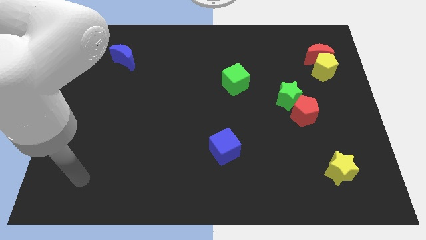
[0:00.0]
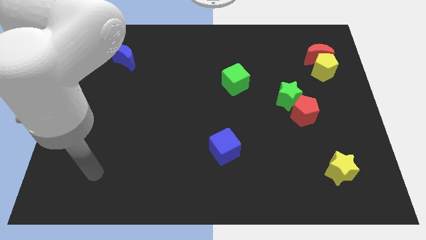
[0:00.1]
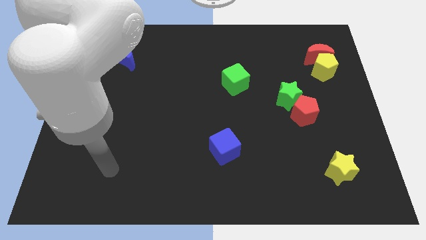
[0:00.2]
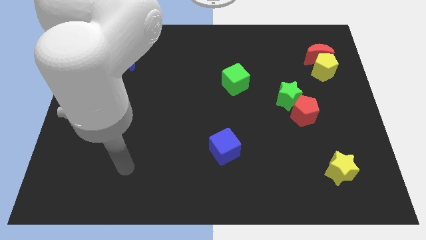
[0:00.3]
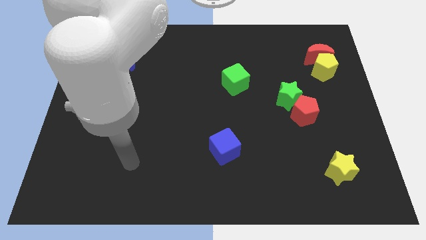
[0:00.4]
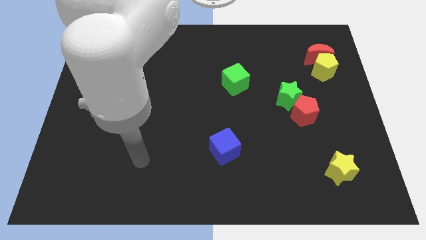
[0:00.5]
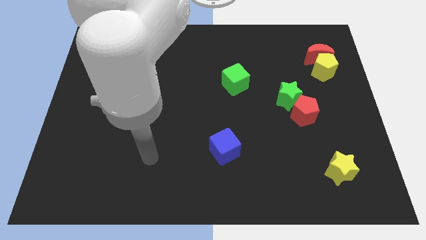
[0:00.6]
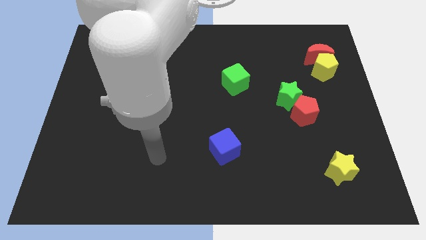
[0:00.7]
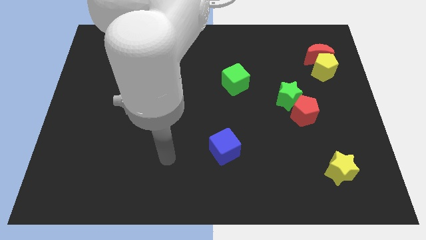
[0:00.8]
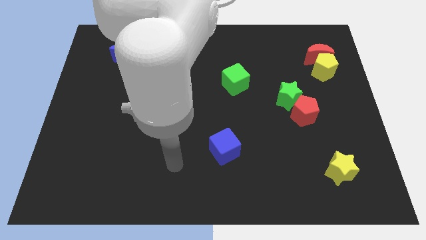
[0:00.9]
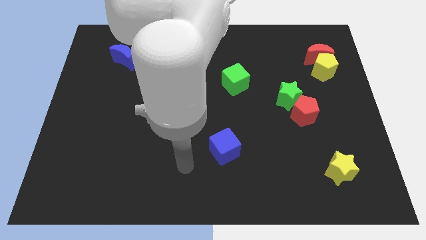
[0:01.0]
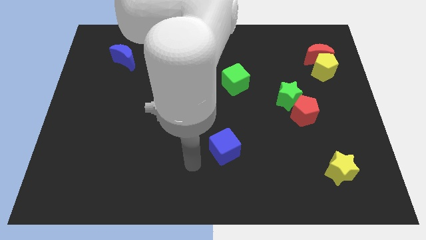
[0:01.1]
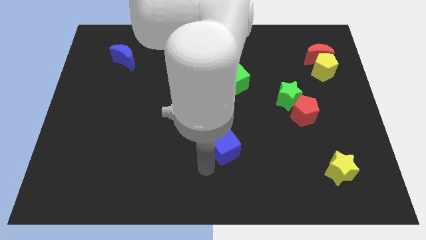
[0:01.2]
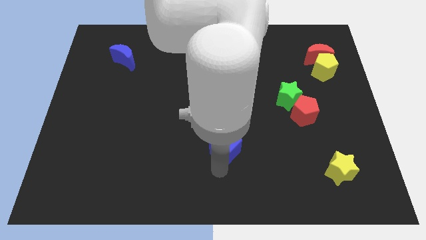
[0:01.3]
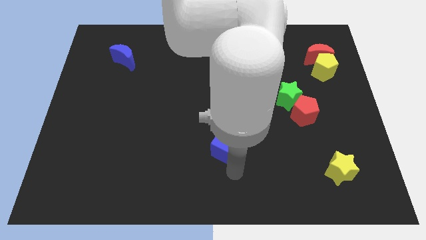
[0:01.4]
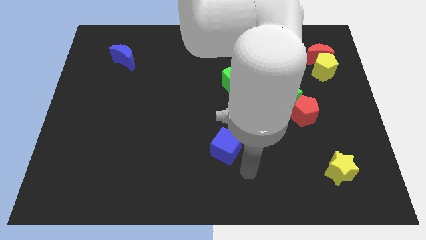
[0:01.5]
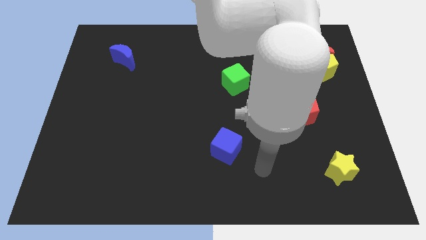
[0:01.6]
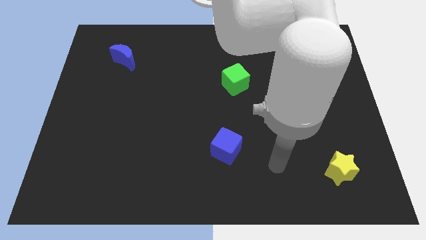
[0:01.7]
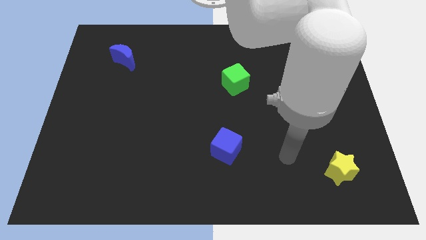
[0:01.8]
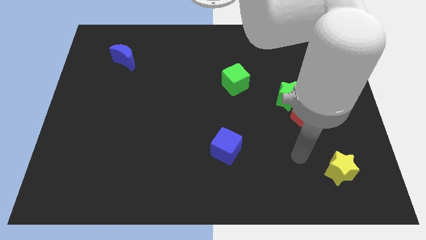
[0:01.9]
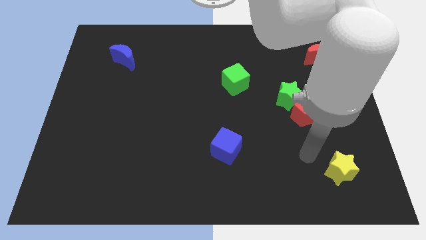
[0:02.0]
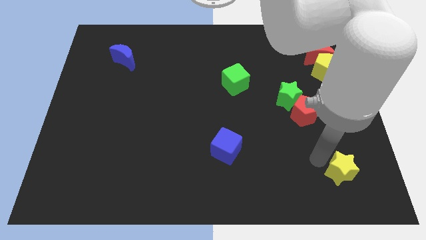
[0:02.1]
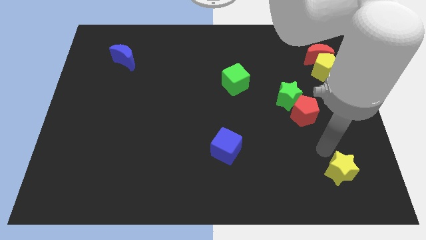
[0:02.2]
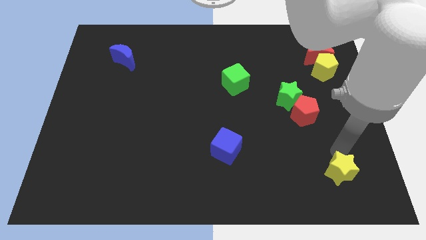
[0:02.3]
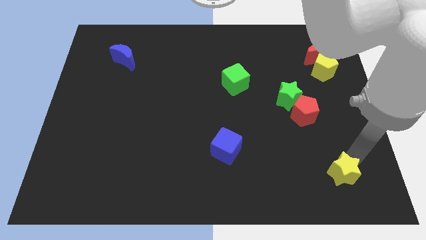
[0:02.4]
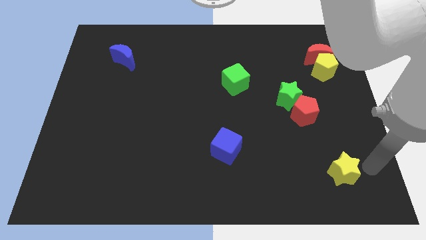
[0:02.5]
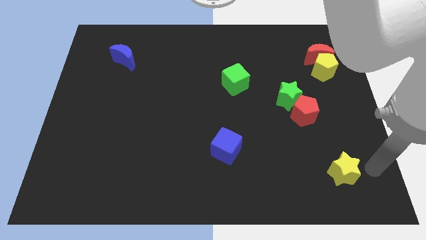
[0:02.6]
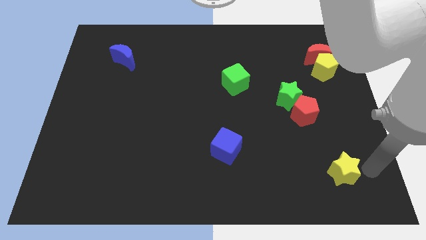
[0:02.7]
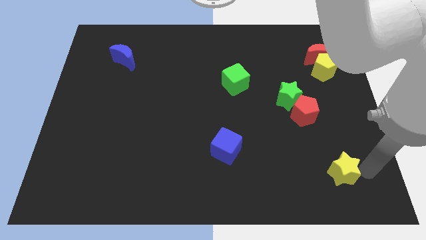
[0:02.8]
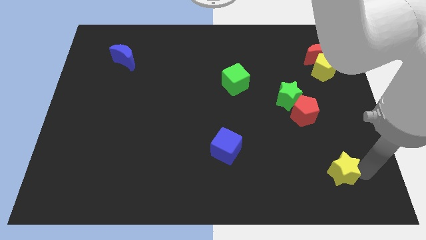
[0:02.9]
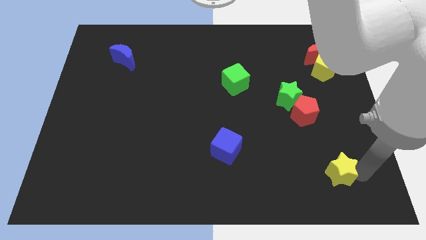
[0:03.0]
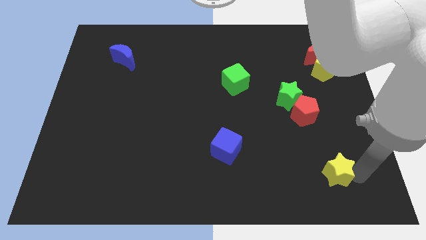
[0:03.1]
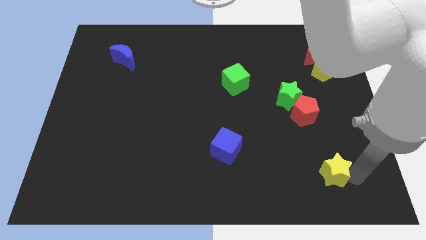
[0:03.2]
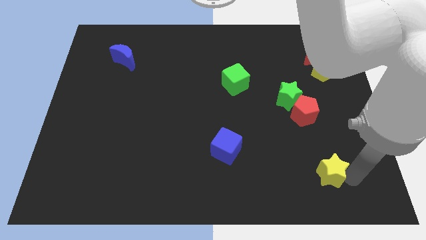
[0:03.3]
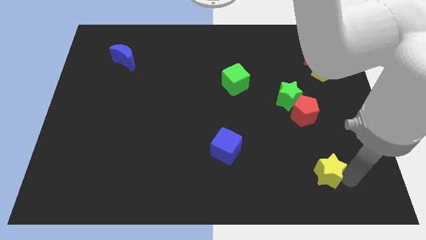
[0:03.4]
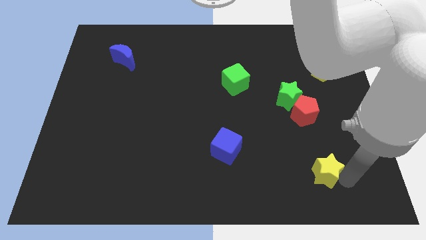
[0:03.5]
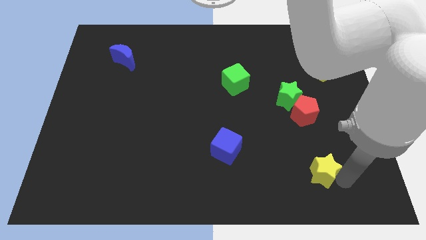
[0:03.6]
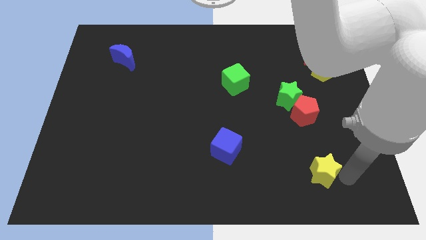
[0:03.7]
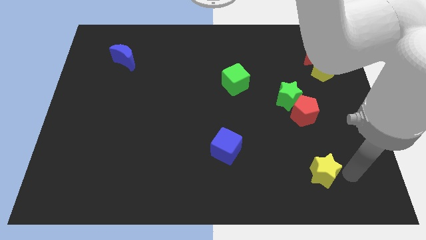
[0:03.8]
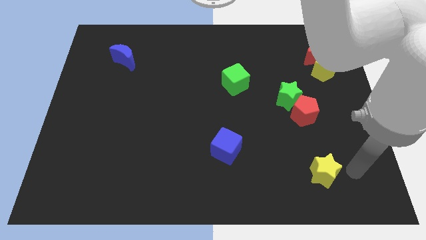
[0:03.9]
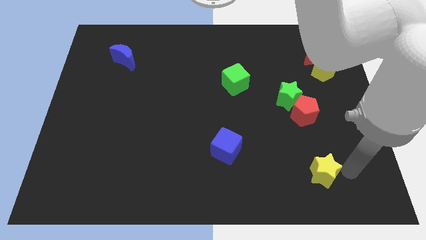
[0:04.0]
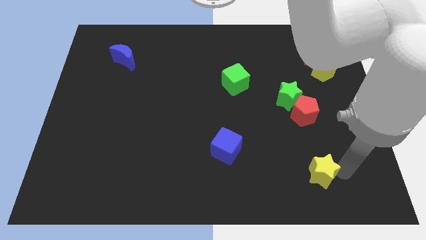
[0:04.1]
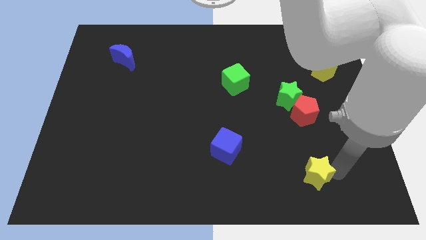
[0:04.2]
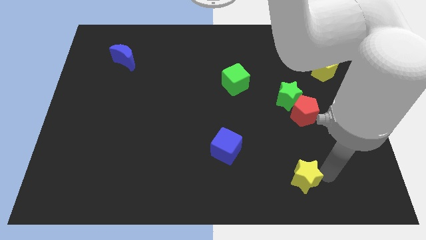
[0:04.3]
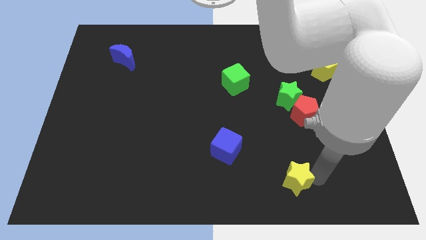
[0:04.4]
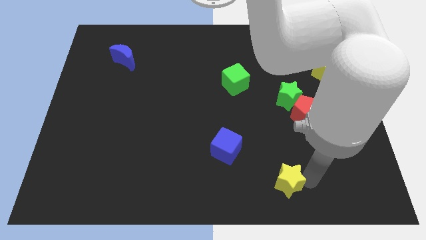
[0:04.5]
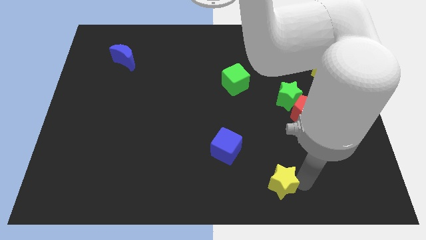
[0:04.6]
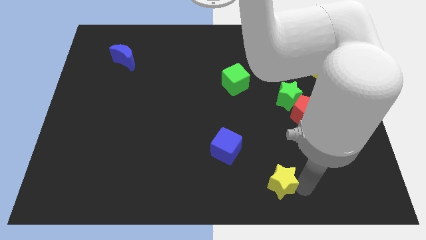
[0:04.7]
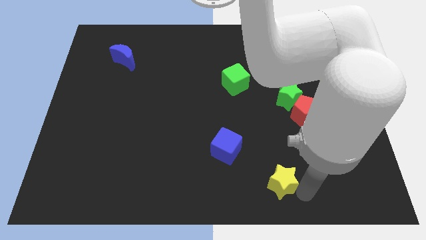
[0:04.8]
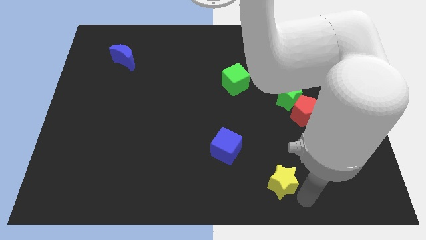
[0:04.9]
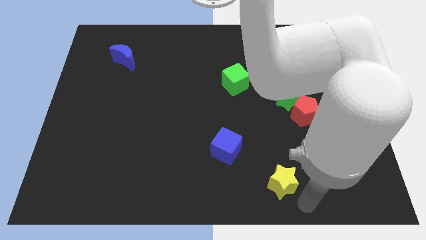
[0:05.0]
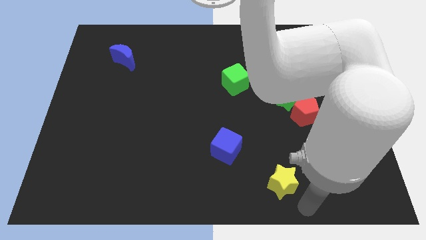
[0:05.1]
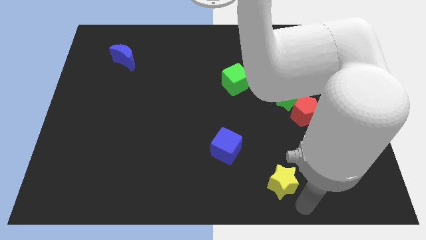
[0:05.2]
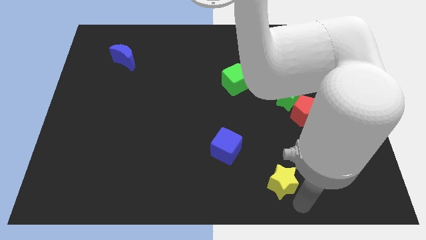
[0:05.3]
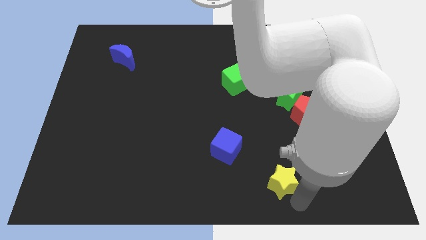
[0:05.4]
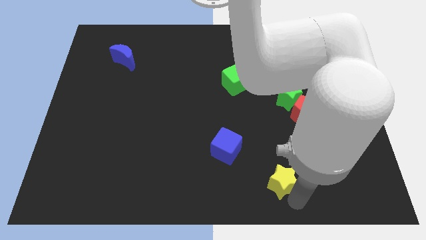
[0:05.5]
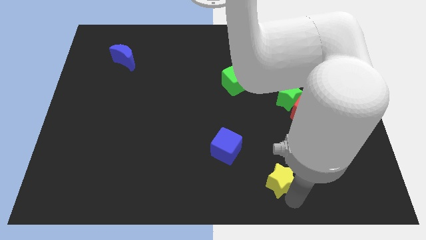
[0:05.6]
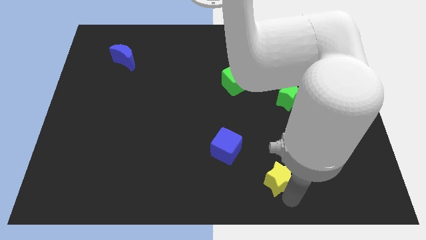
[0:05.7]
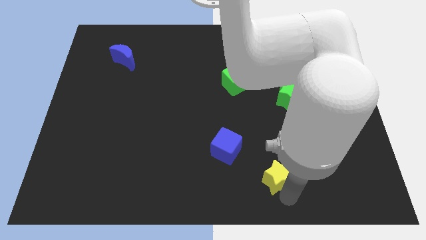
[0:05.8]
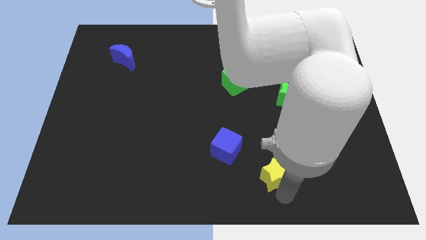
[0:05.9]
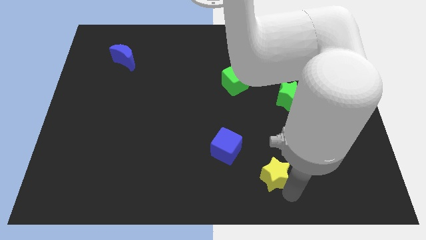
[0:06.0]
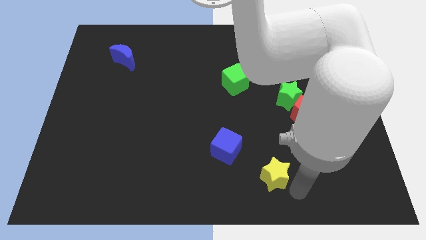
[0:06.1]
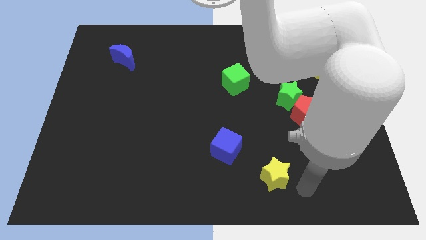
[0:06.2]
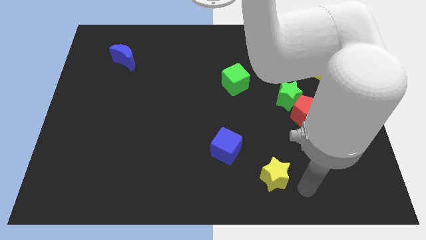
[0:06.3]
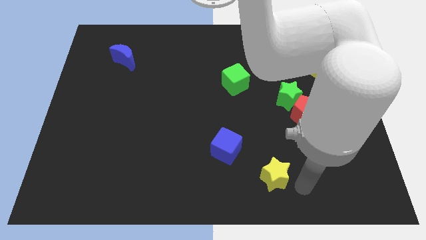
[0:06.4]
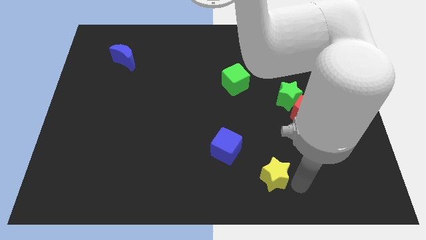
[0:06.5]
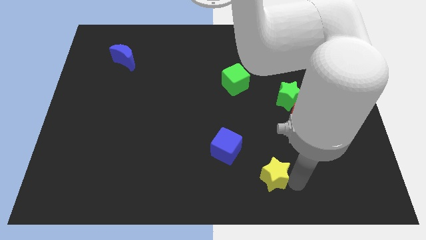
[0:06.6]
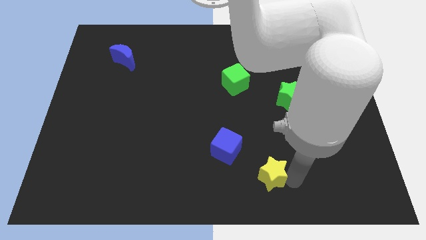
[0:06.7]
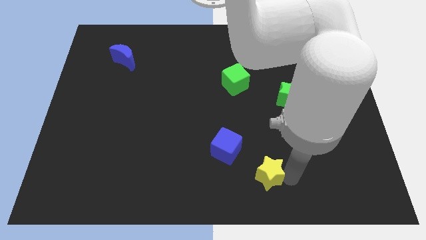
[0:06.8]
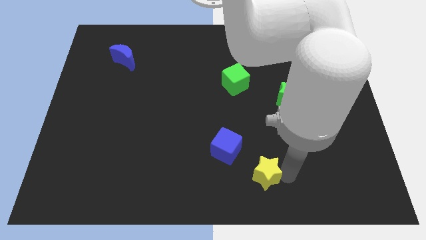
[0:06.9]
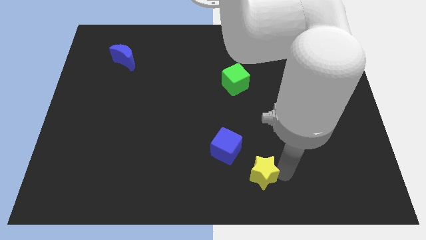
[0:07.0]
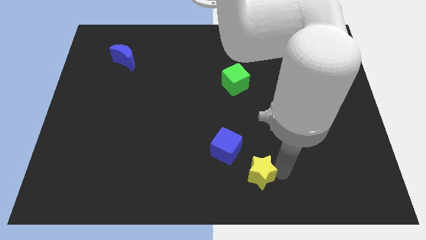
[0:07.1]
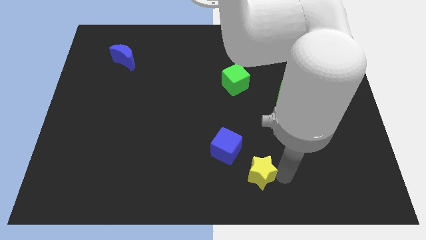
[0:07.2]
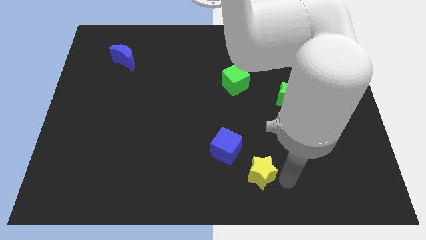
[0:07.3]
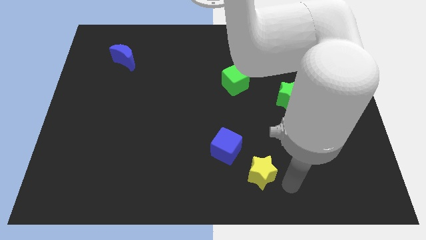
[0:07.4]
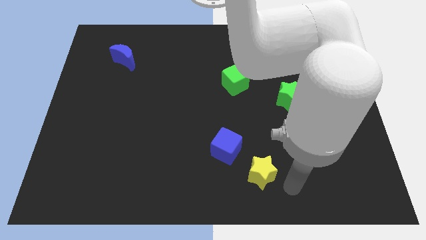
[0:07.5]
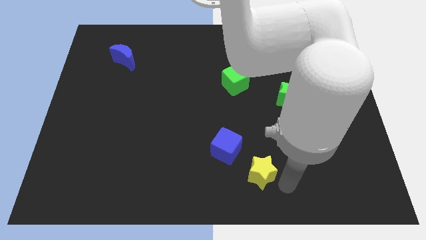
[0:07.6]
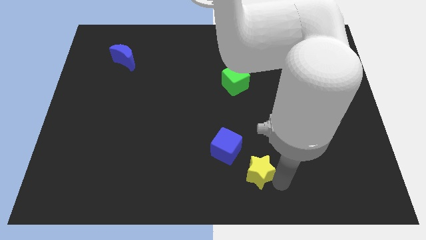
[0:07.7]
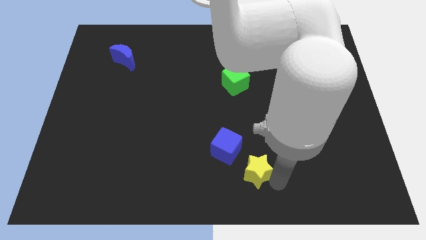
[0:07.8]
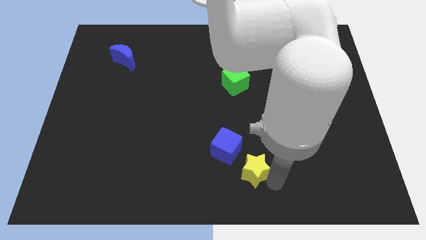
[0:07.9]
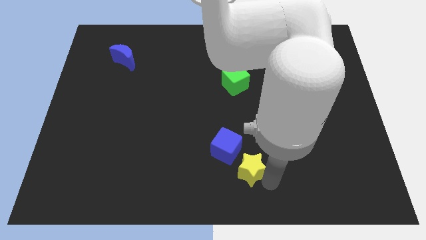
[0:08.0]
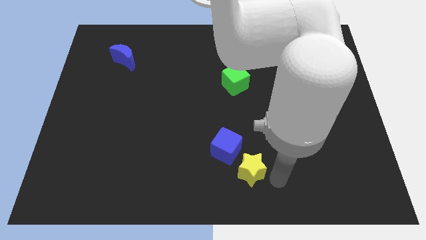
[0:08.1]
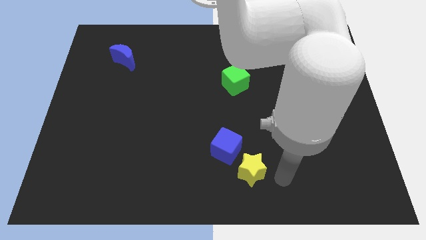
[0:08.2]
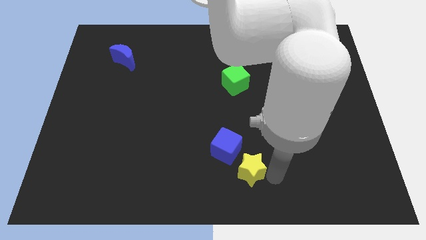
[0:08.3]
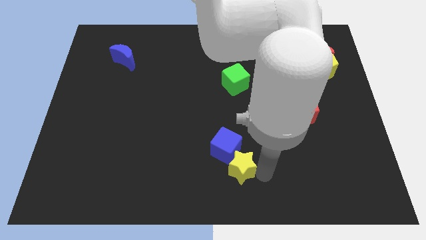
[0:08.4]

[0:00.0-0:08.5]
move the yellow star to the left
